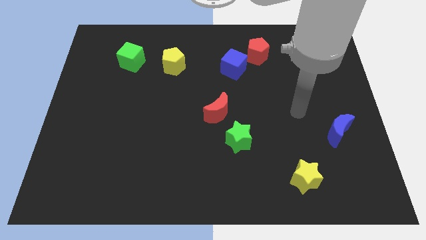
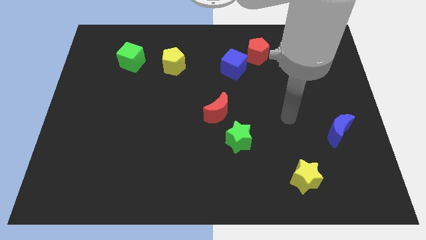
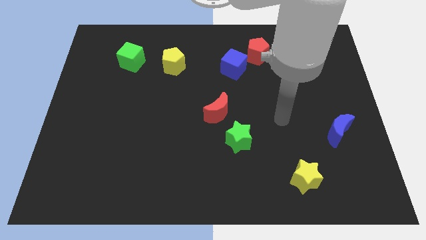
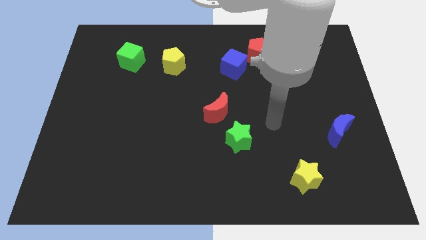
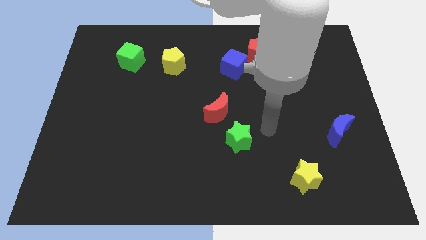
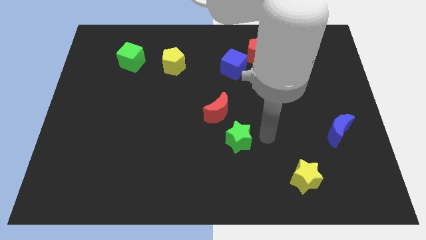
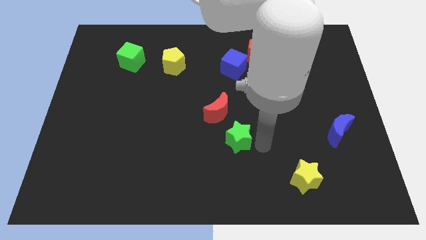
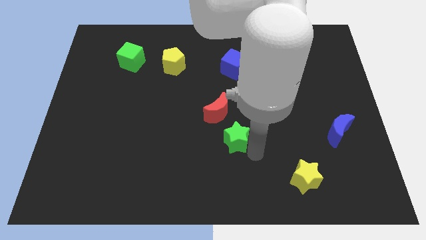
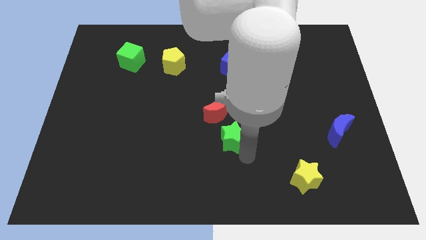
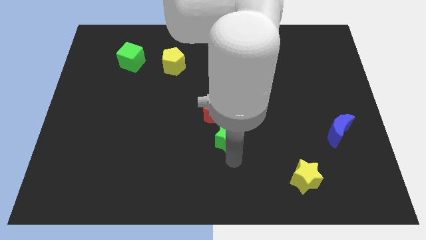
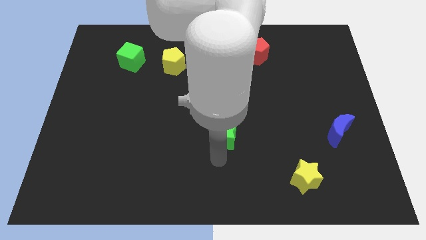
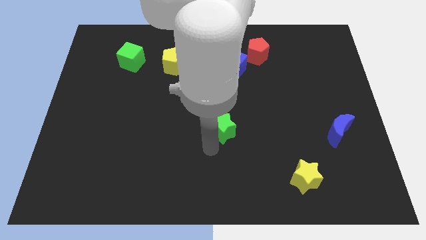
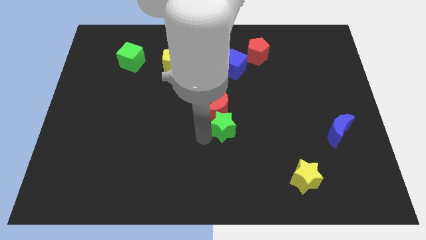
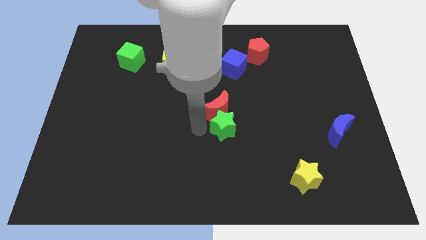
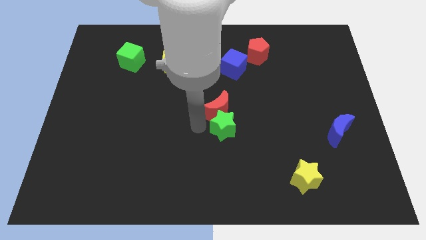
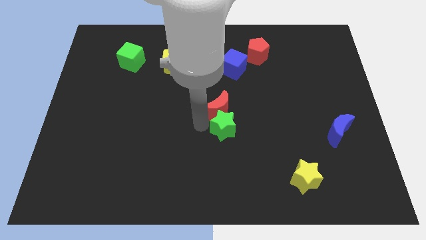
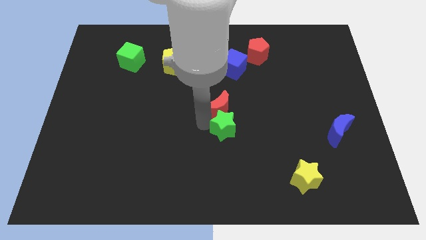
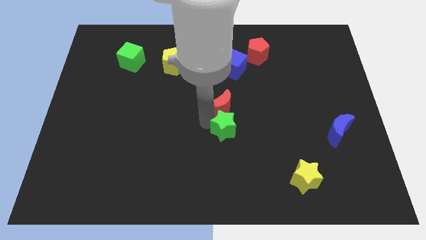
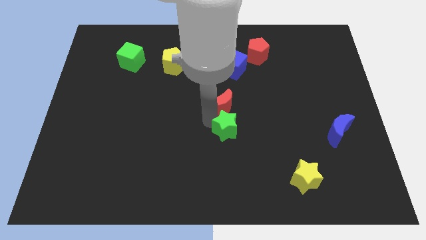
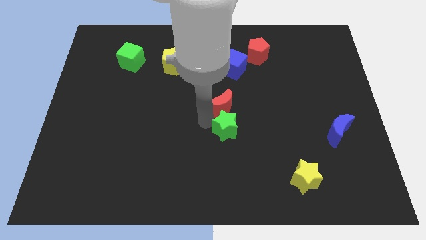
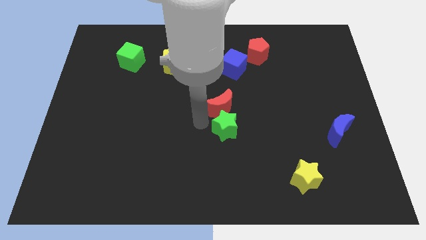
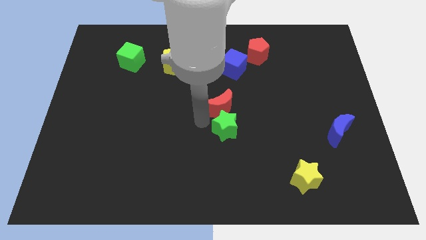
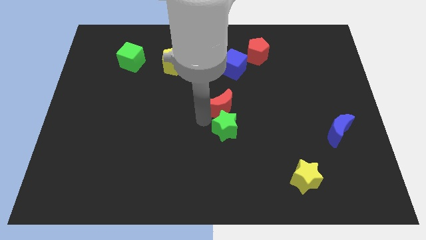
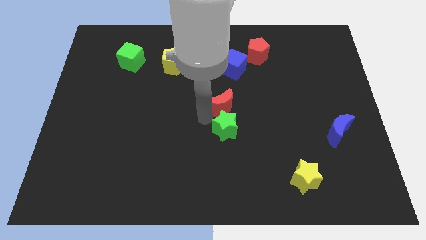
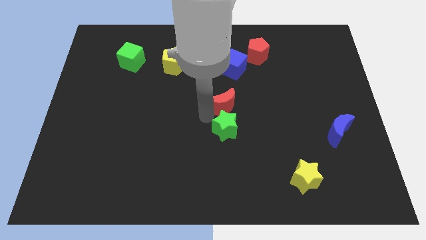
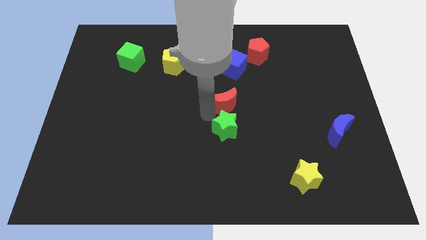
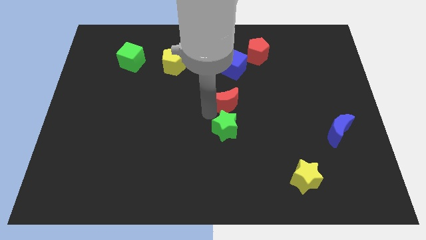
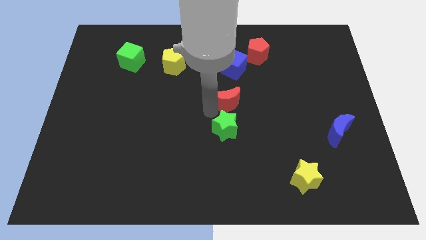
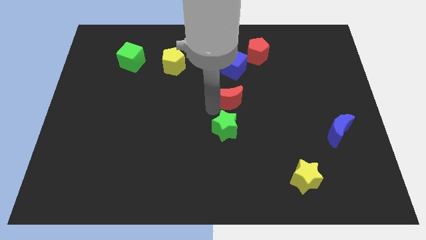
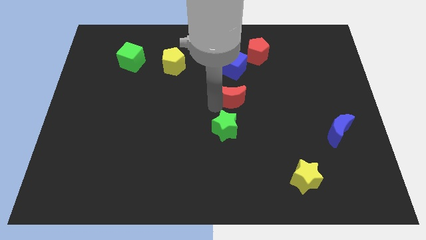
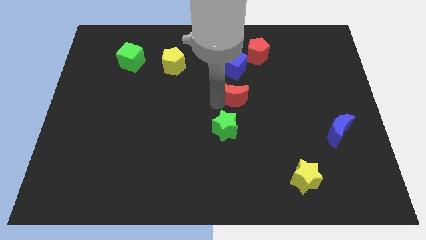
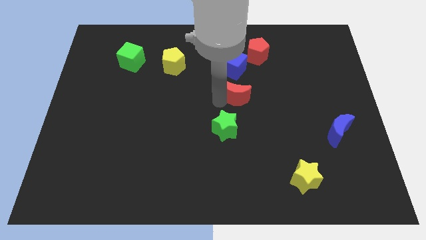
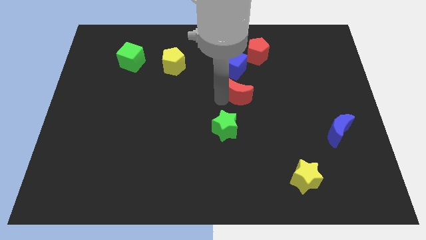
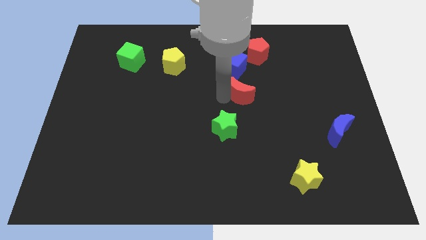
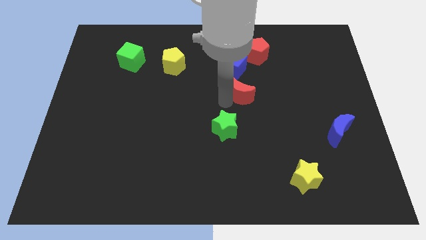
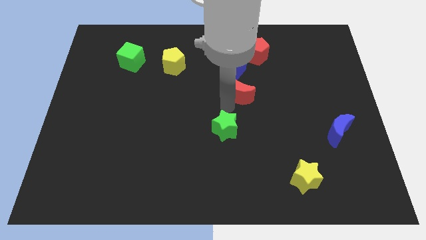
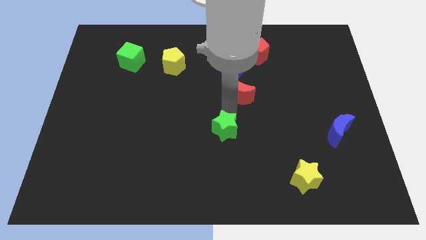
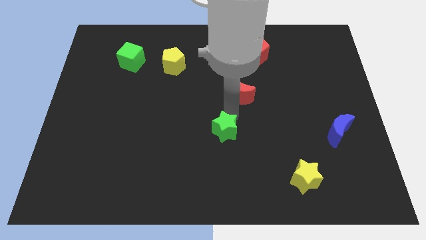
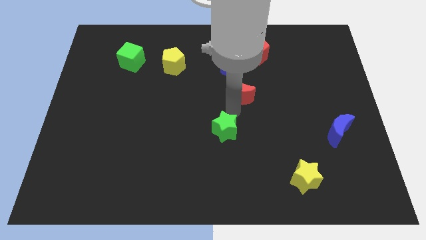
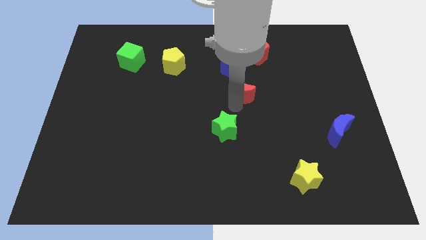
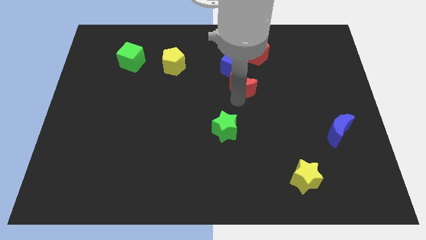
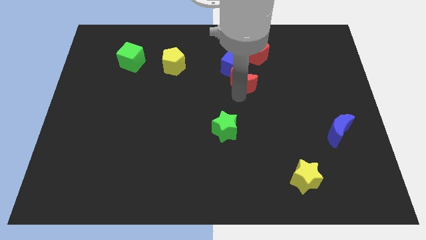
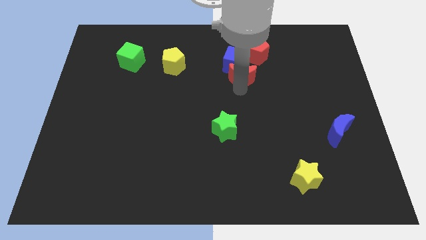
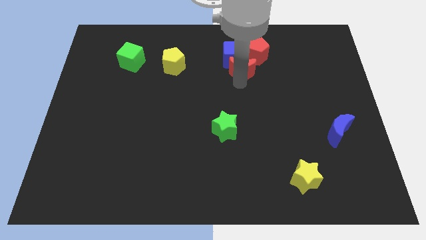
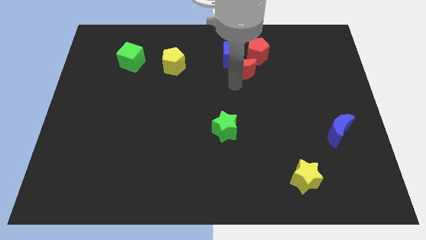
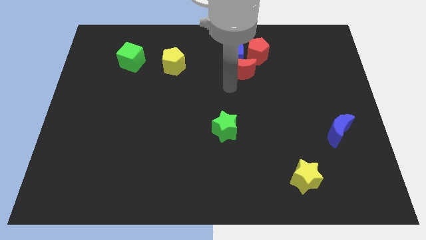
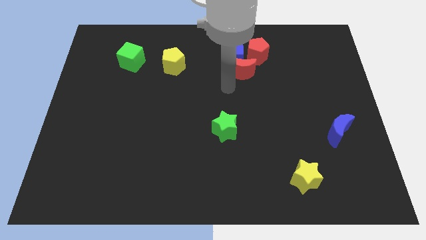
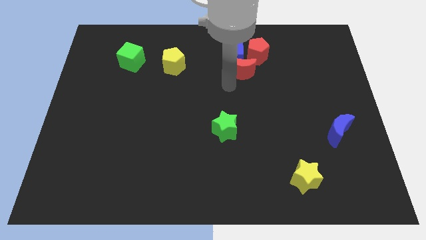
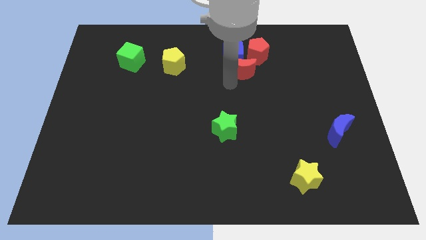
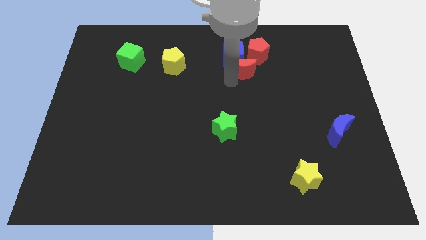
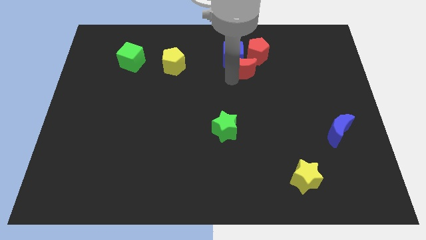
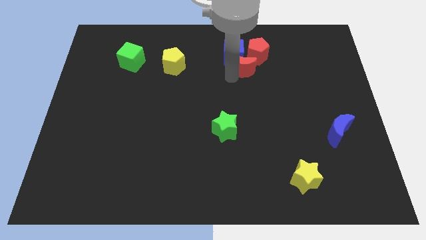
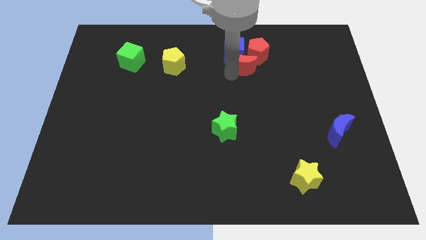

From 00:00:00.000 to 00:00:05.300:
push the red moon to the red pentagon

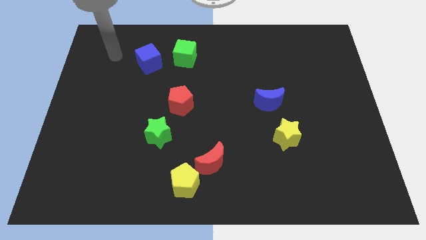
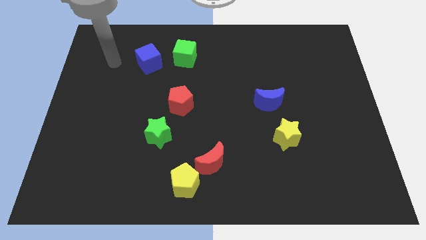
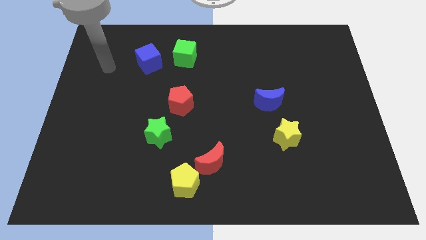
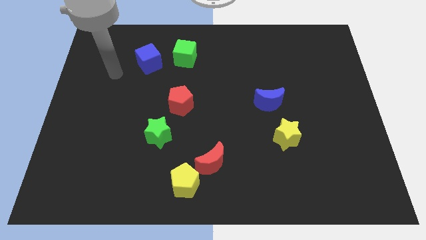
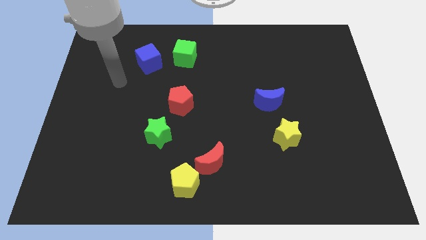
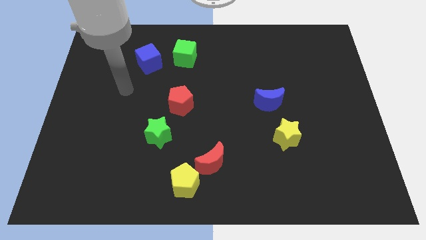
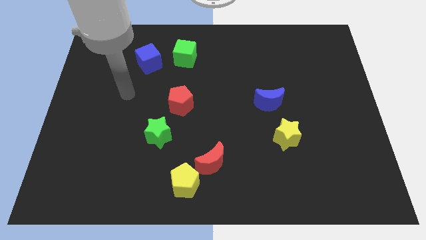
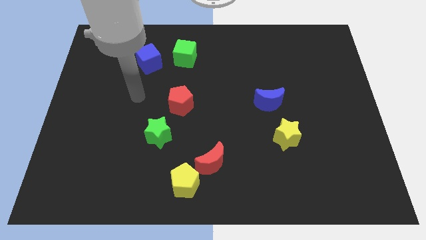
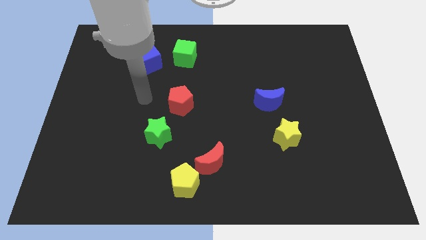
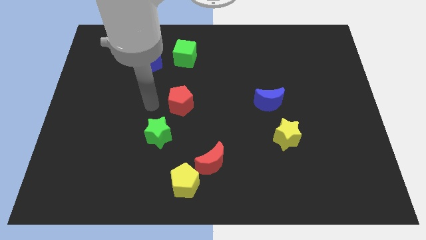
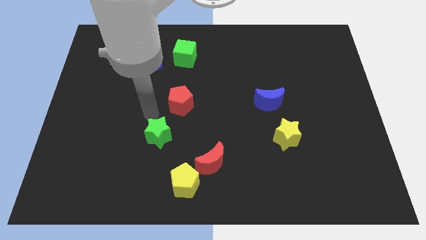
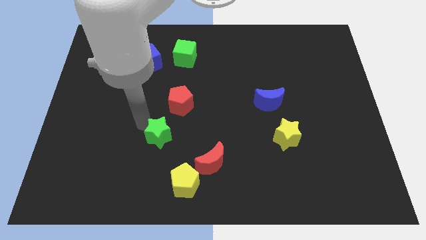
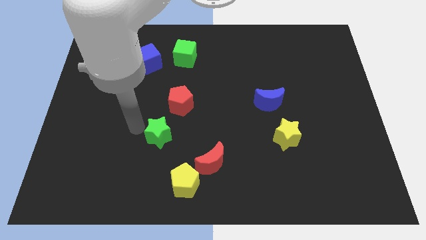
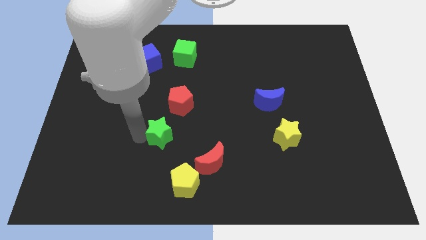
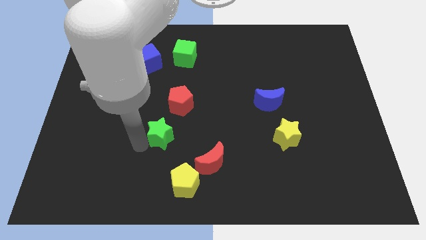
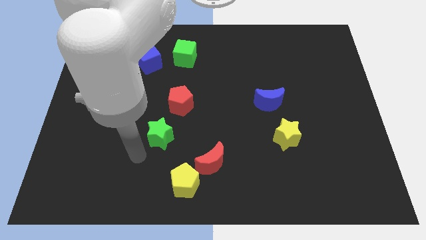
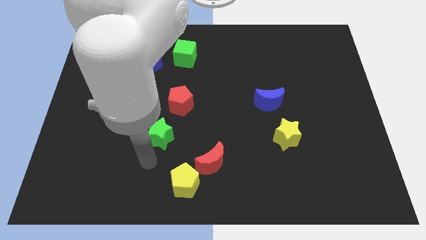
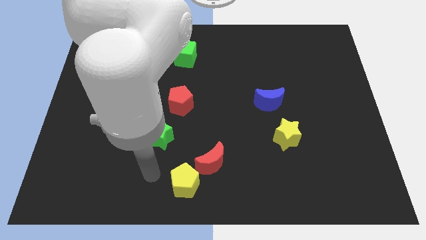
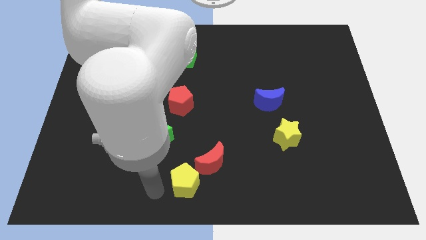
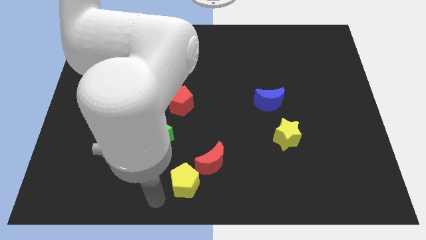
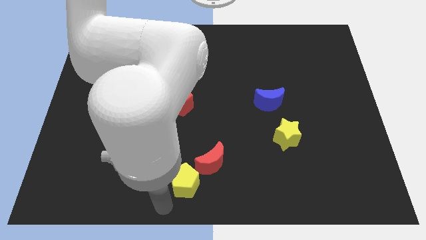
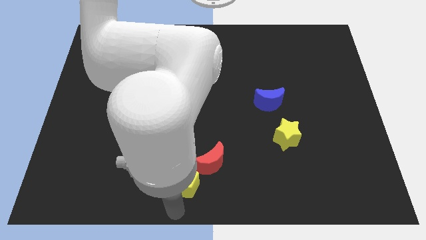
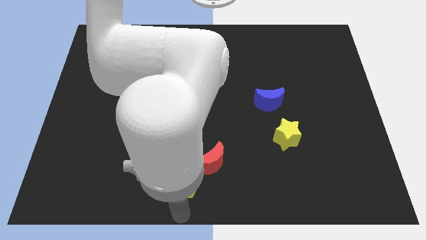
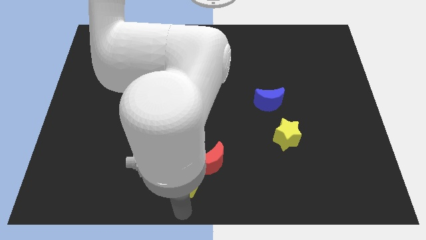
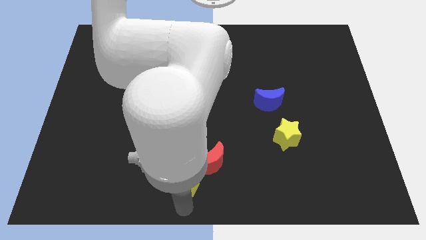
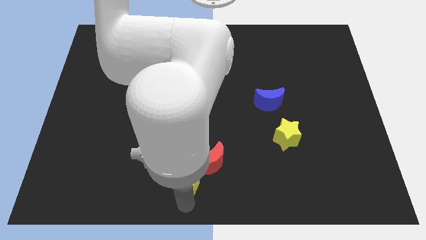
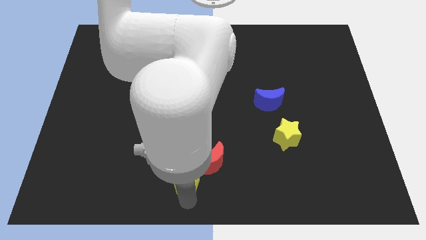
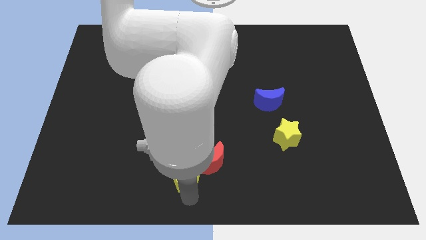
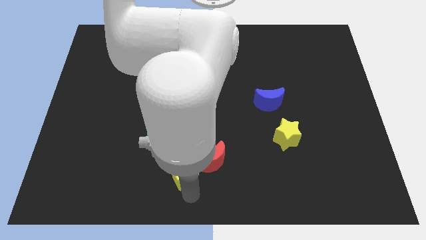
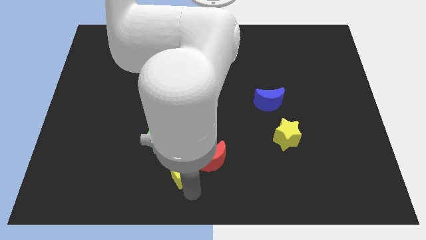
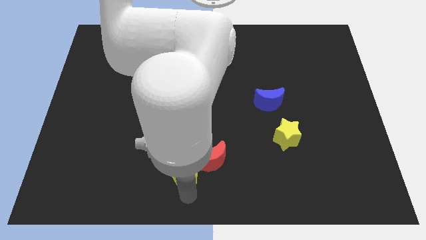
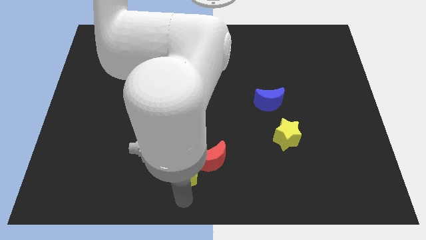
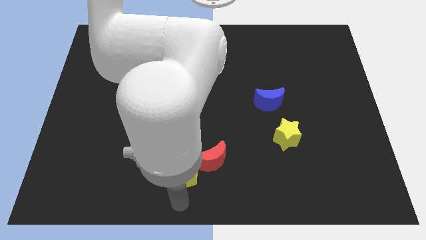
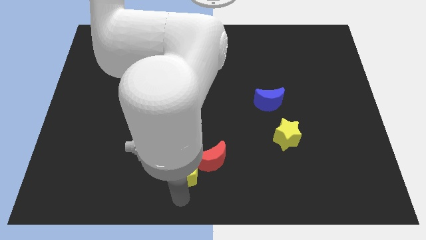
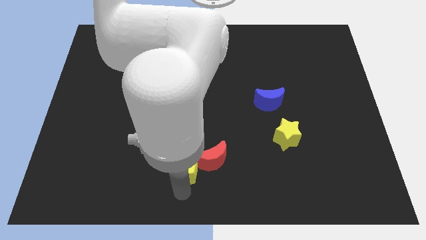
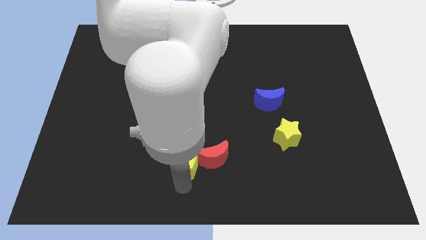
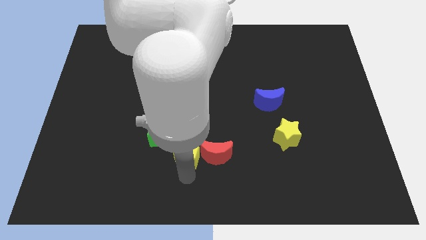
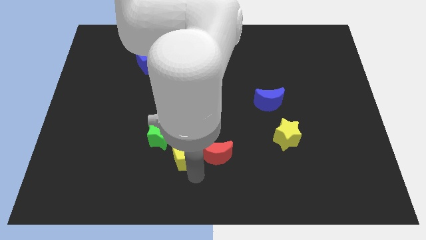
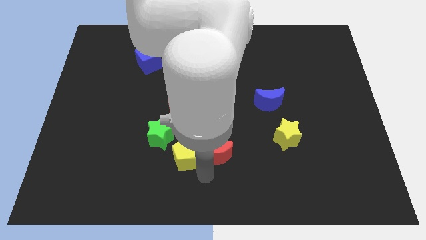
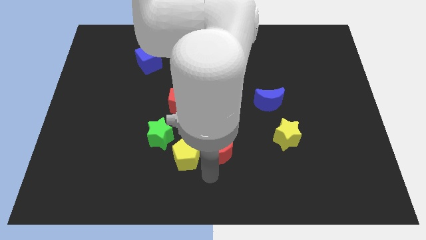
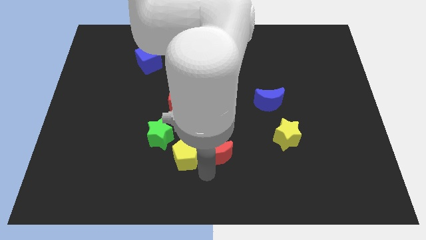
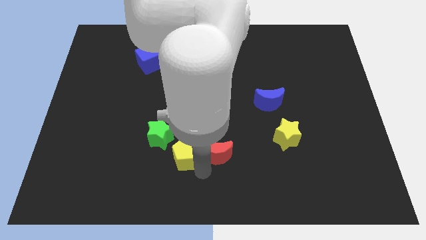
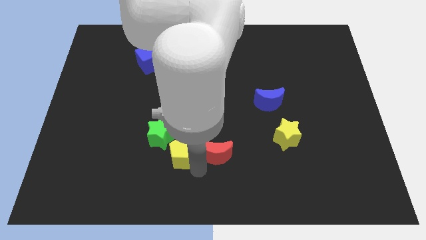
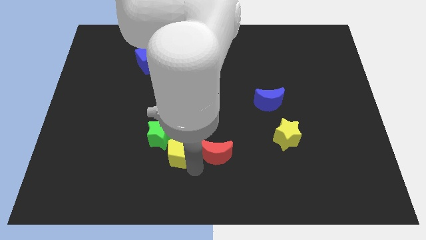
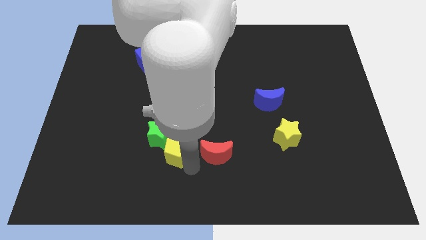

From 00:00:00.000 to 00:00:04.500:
put the yellow pentagon close to the green star
